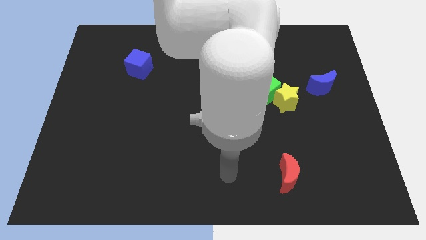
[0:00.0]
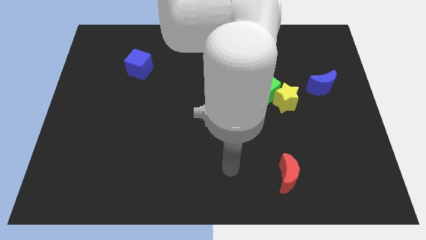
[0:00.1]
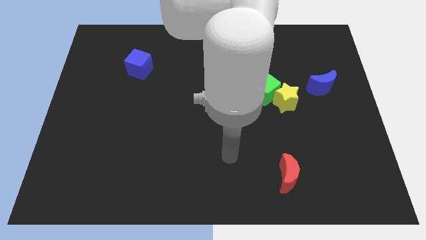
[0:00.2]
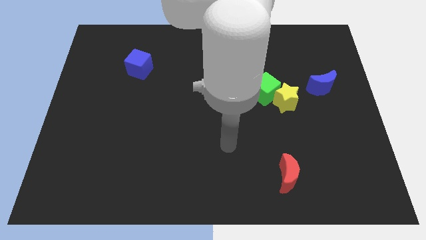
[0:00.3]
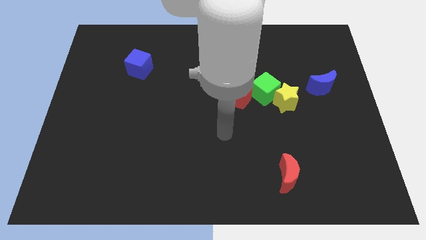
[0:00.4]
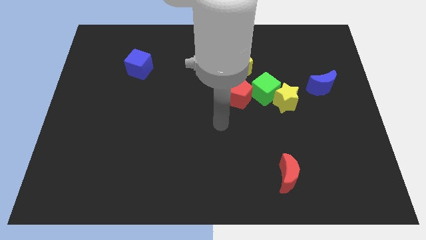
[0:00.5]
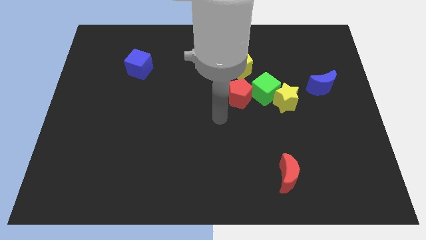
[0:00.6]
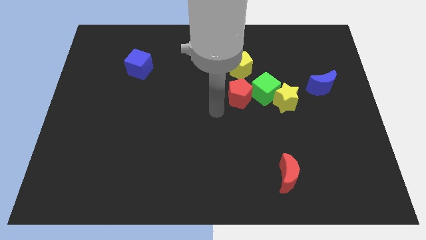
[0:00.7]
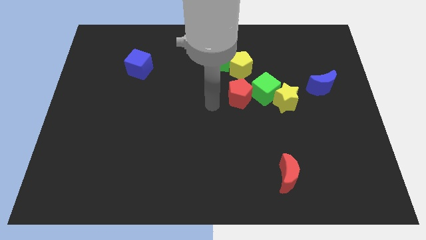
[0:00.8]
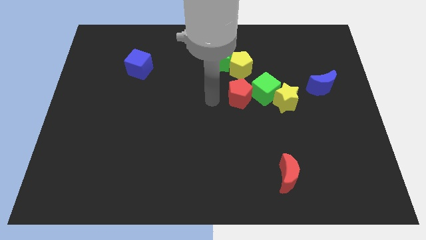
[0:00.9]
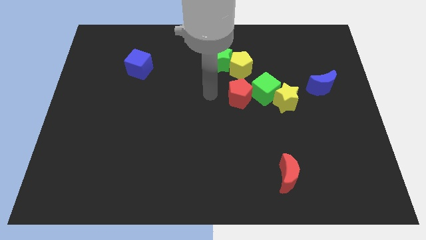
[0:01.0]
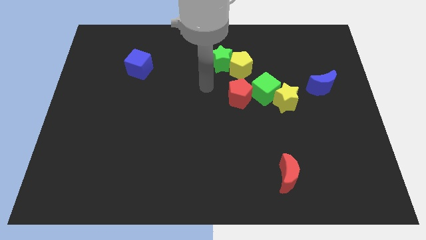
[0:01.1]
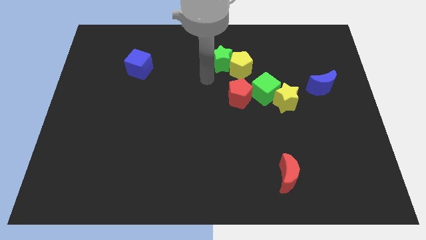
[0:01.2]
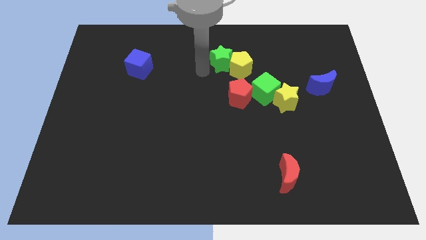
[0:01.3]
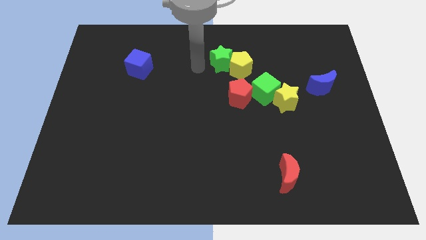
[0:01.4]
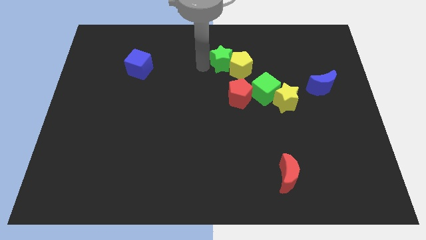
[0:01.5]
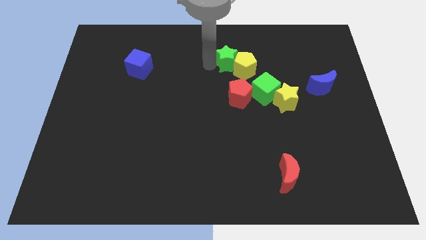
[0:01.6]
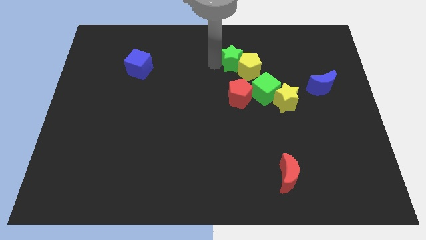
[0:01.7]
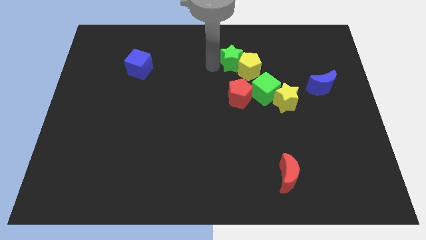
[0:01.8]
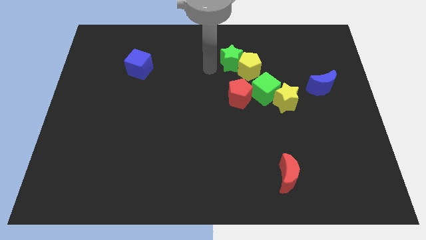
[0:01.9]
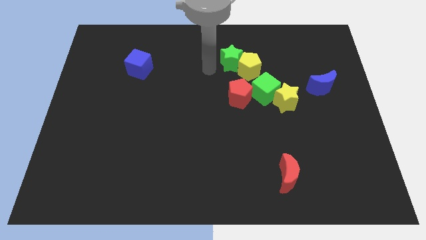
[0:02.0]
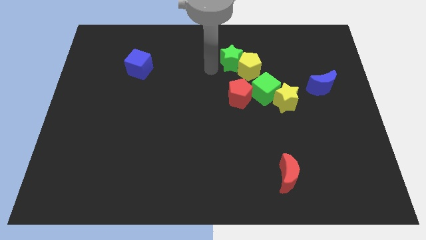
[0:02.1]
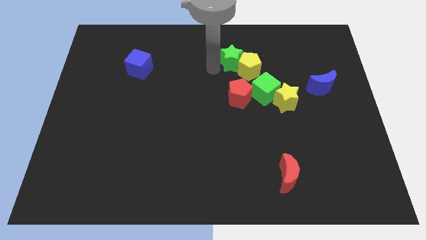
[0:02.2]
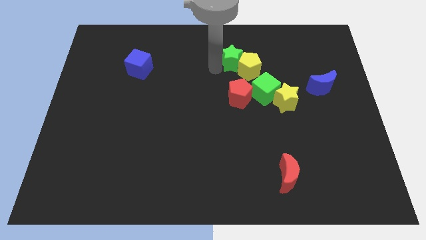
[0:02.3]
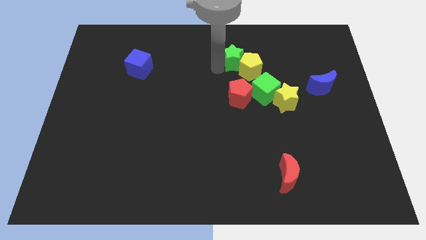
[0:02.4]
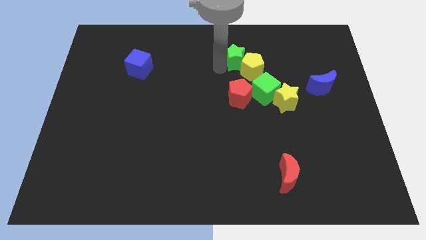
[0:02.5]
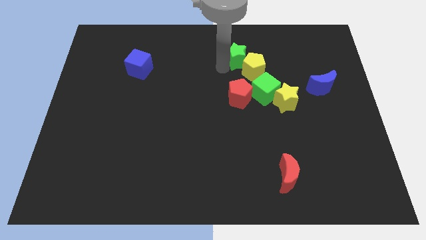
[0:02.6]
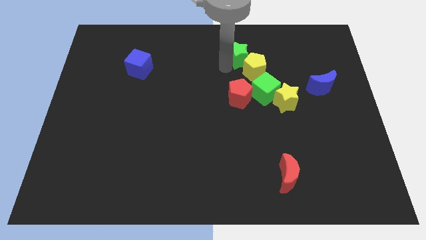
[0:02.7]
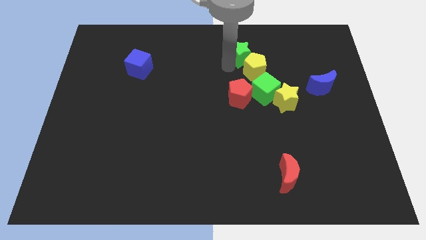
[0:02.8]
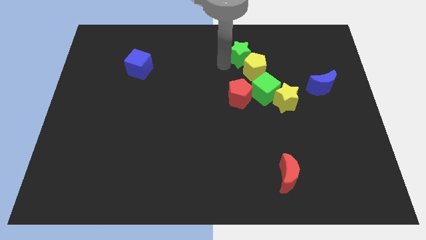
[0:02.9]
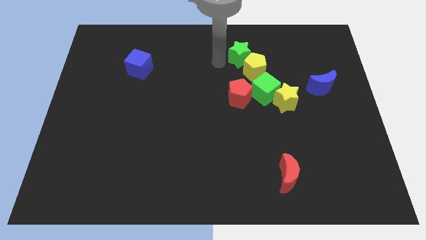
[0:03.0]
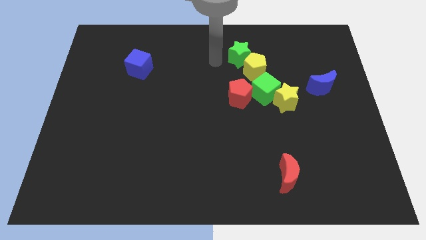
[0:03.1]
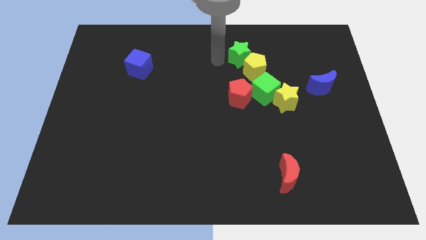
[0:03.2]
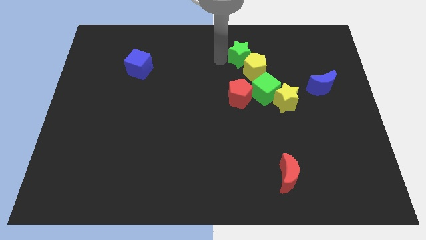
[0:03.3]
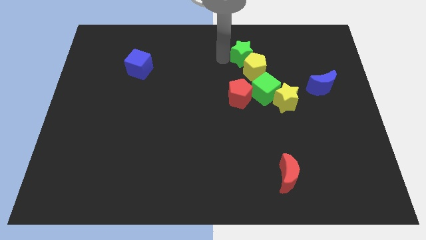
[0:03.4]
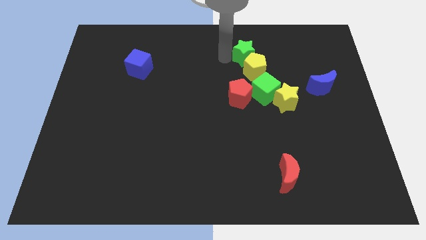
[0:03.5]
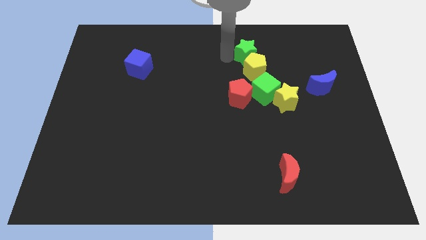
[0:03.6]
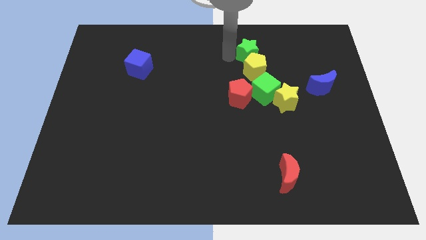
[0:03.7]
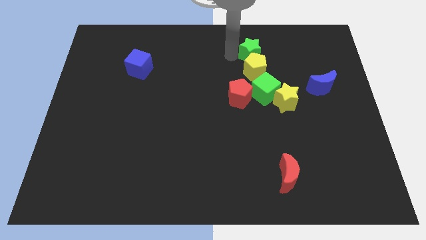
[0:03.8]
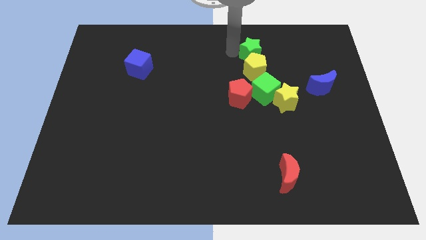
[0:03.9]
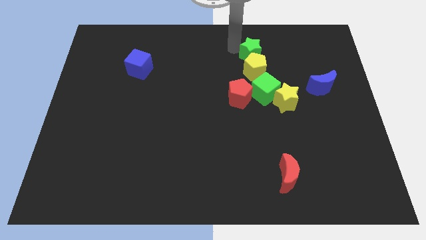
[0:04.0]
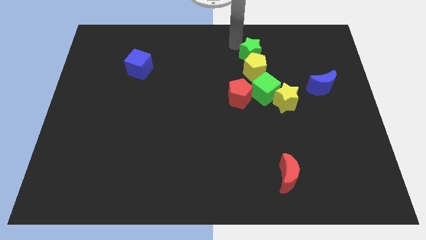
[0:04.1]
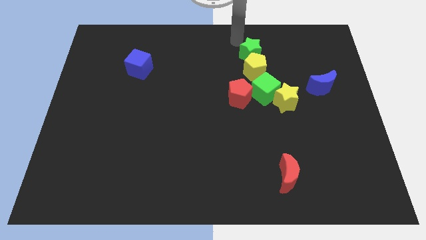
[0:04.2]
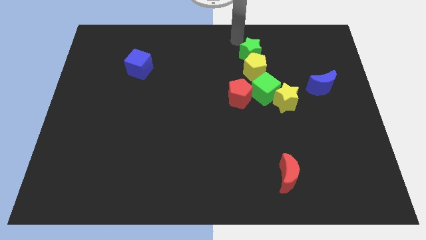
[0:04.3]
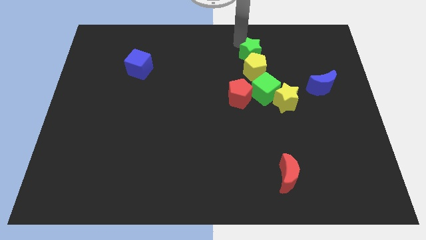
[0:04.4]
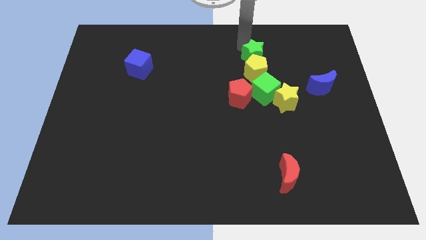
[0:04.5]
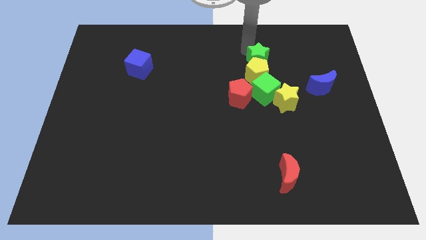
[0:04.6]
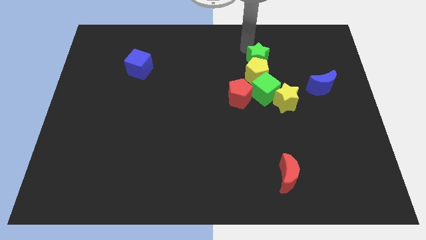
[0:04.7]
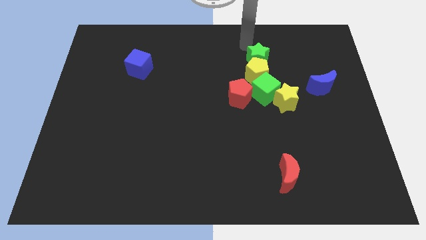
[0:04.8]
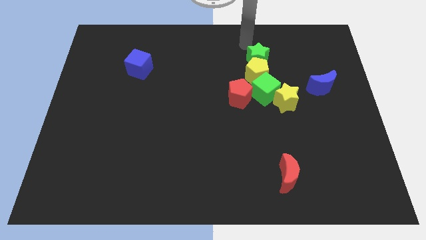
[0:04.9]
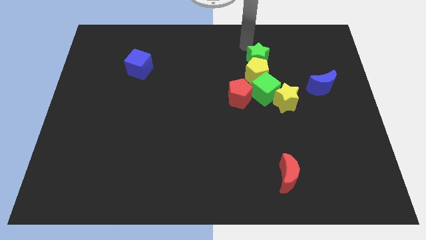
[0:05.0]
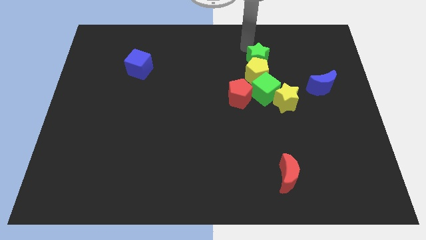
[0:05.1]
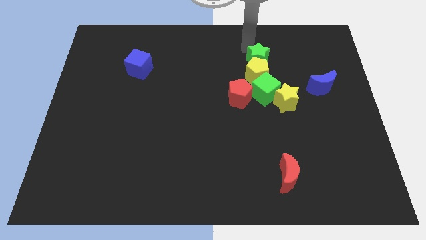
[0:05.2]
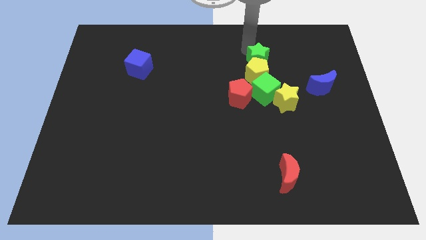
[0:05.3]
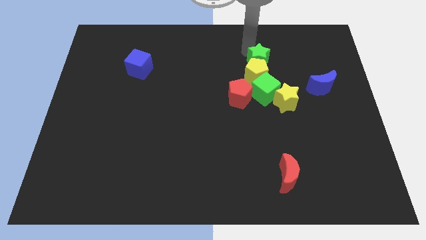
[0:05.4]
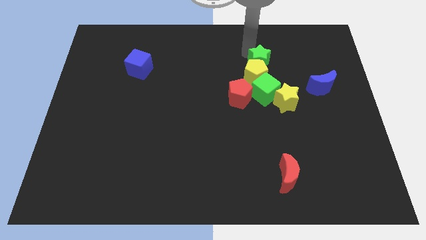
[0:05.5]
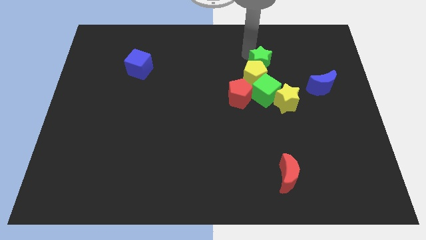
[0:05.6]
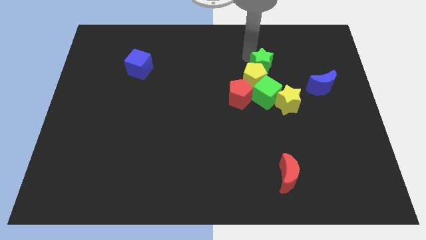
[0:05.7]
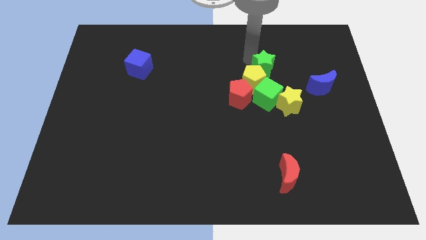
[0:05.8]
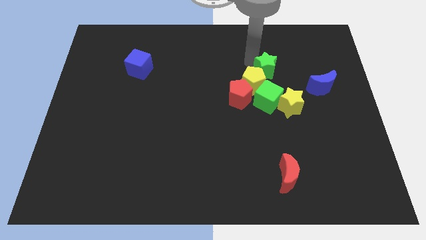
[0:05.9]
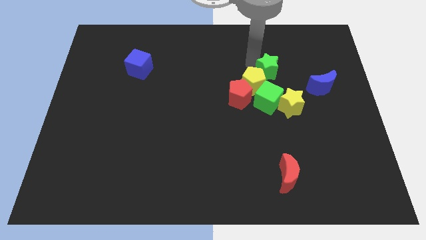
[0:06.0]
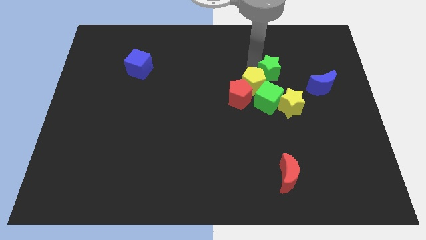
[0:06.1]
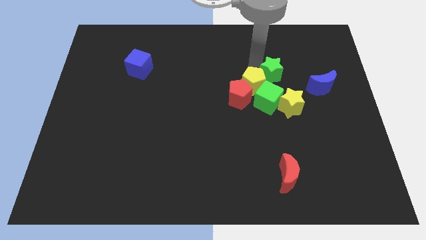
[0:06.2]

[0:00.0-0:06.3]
push the green star to the left side of the blue moon

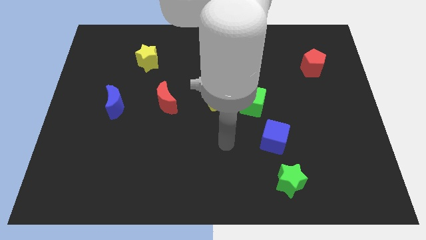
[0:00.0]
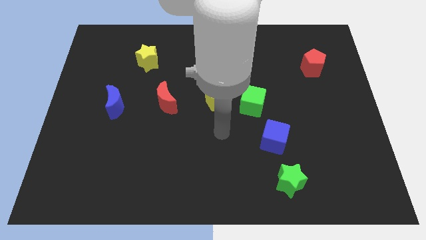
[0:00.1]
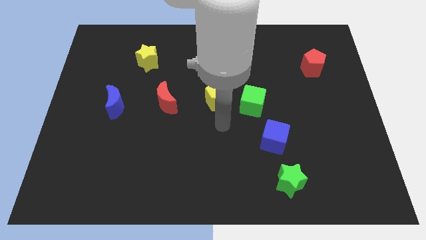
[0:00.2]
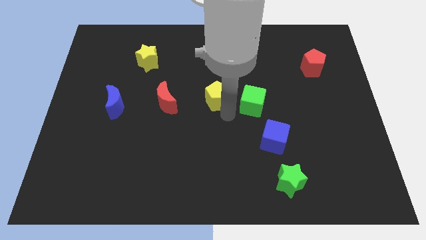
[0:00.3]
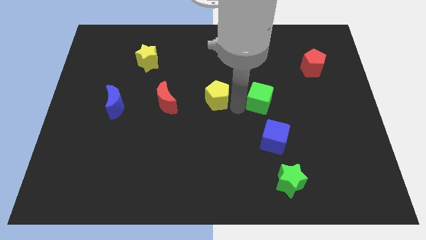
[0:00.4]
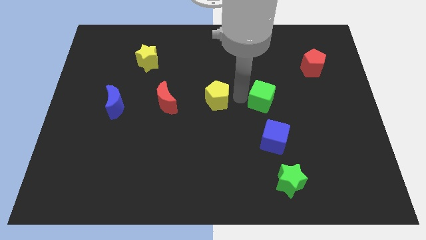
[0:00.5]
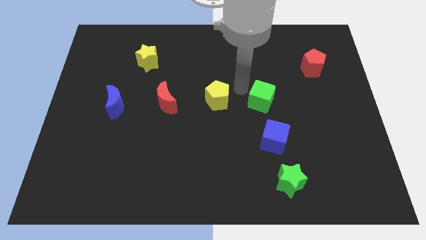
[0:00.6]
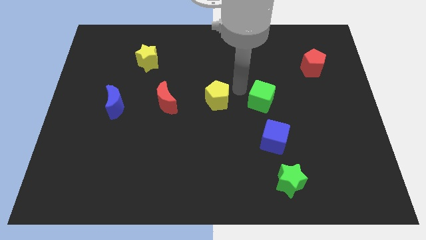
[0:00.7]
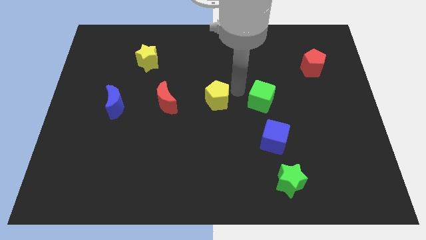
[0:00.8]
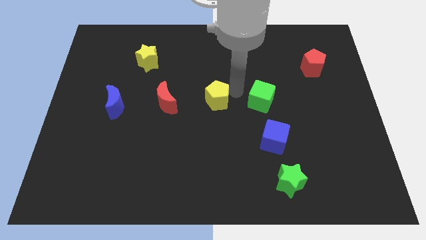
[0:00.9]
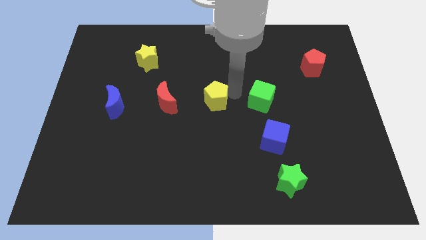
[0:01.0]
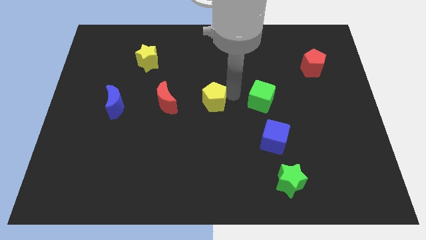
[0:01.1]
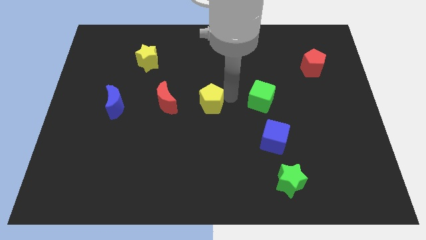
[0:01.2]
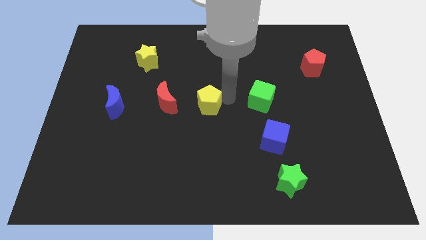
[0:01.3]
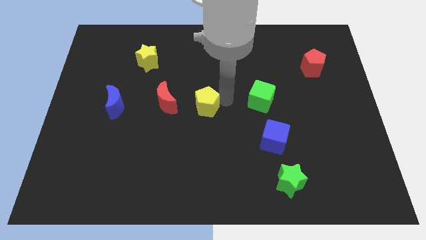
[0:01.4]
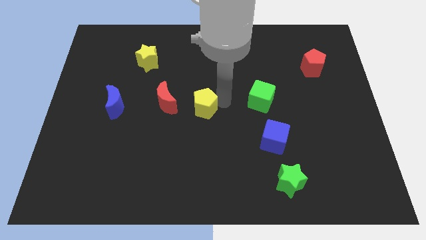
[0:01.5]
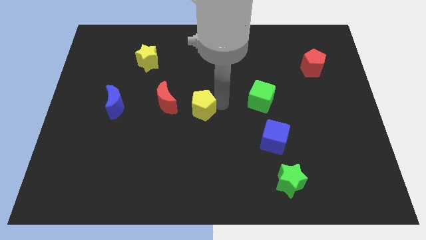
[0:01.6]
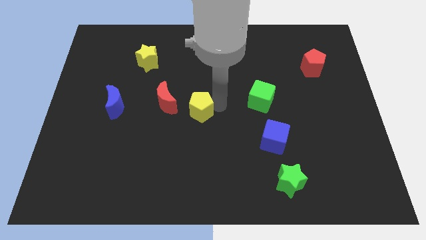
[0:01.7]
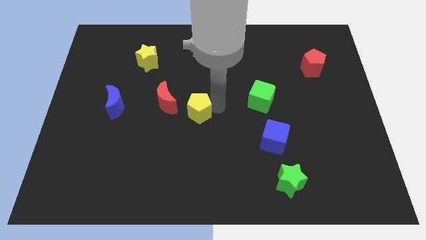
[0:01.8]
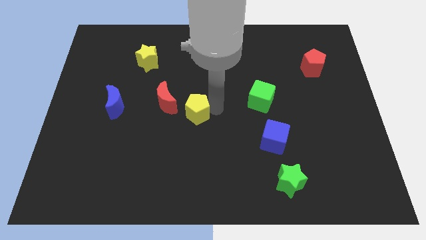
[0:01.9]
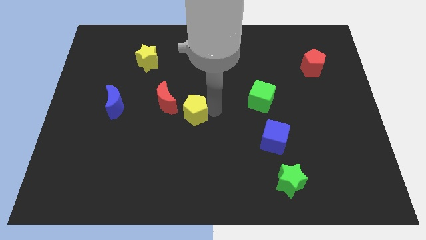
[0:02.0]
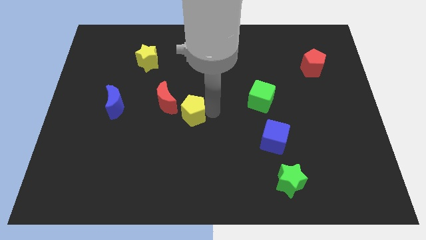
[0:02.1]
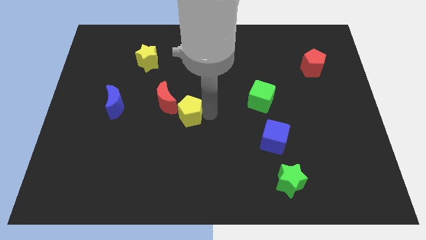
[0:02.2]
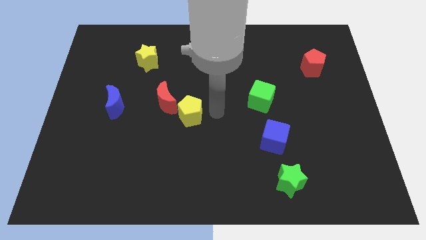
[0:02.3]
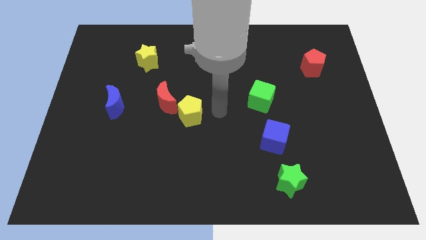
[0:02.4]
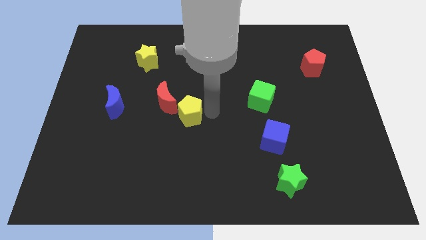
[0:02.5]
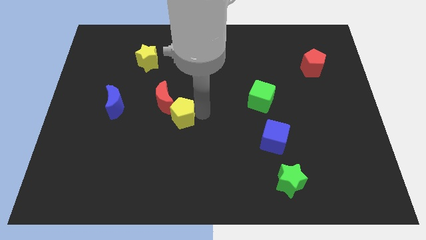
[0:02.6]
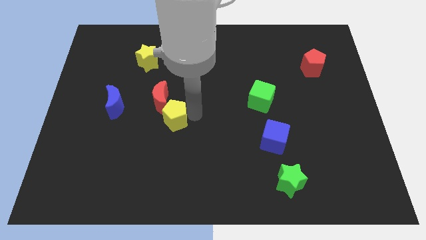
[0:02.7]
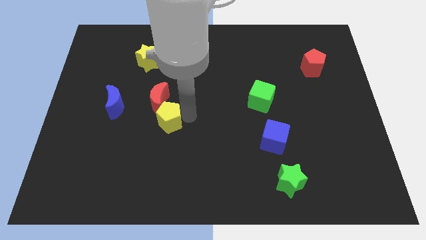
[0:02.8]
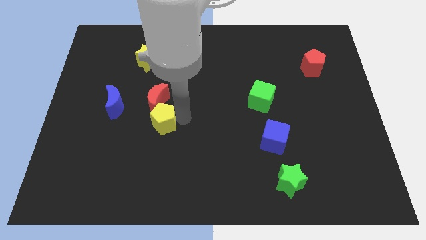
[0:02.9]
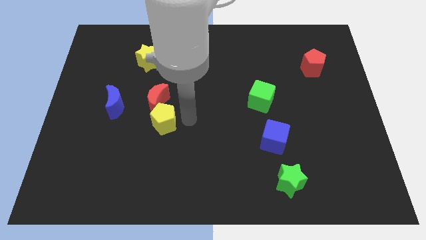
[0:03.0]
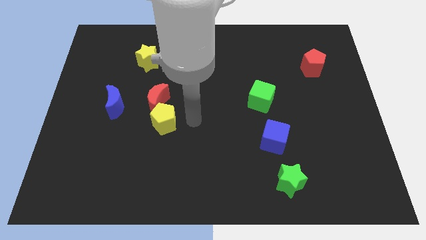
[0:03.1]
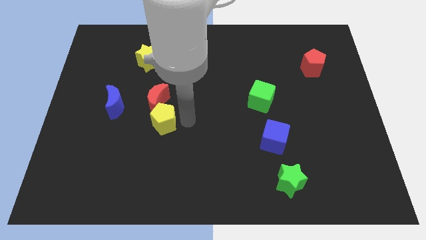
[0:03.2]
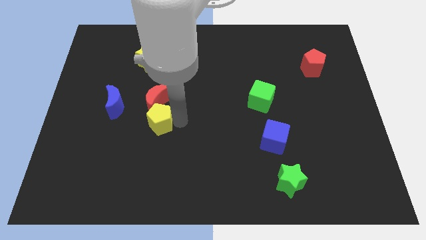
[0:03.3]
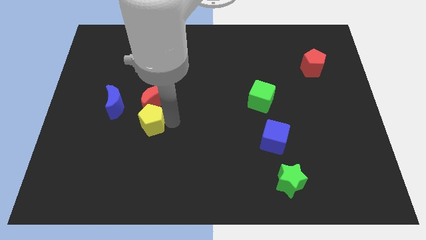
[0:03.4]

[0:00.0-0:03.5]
put the yellow pentagon to the bottom right side of the blue moon
